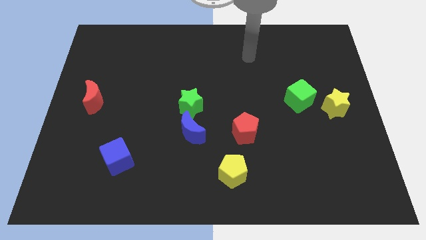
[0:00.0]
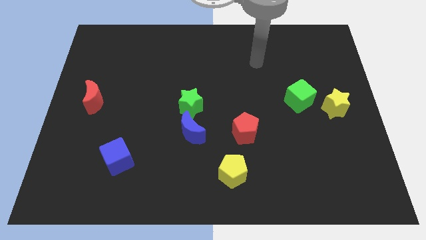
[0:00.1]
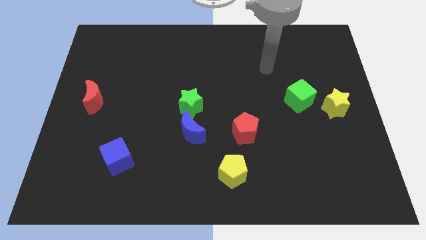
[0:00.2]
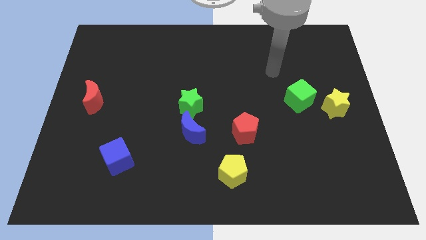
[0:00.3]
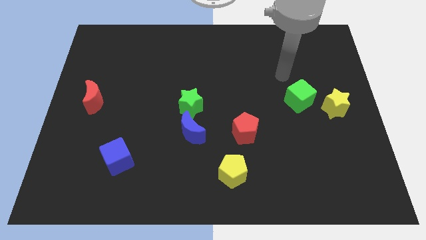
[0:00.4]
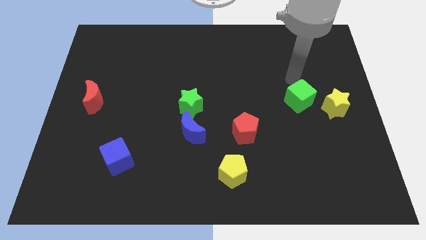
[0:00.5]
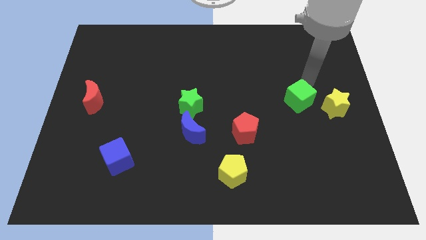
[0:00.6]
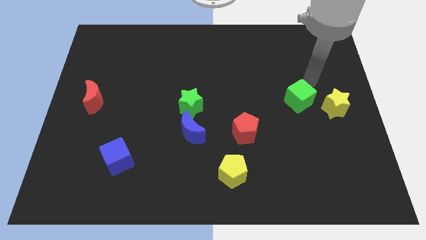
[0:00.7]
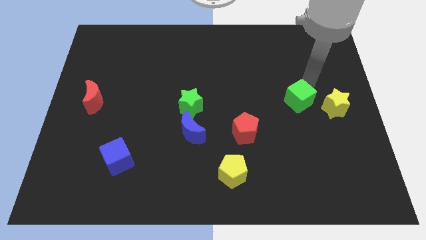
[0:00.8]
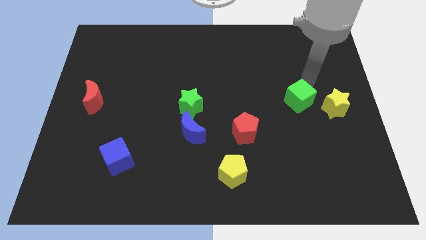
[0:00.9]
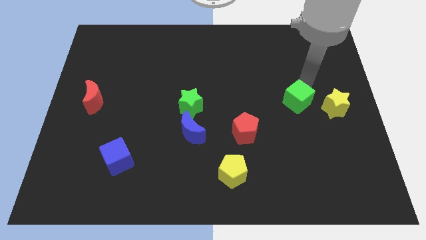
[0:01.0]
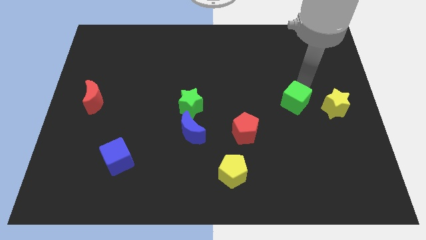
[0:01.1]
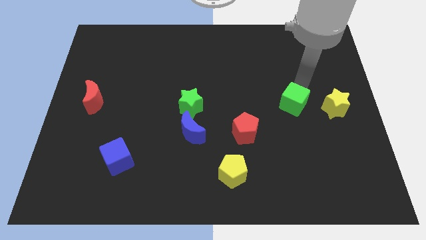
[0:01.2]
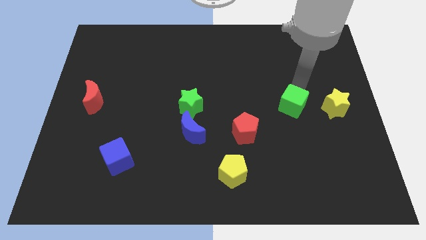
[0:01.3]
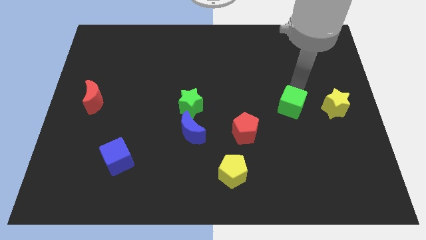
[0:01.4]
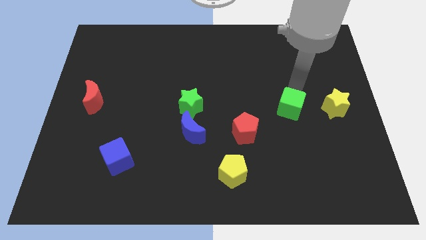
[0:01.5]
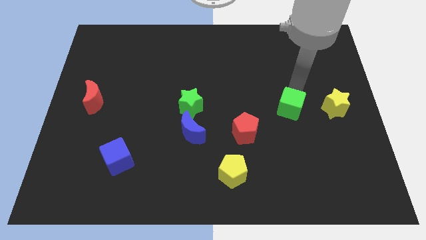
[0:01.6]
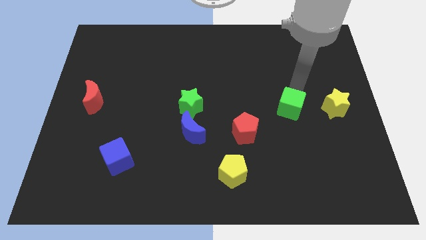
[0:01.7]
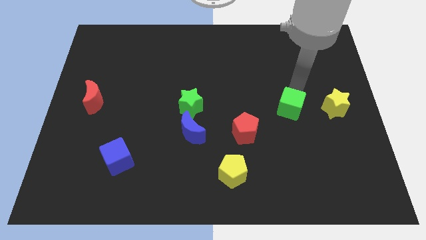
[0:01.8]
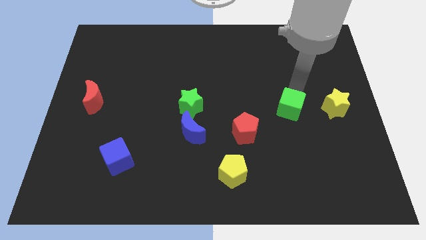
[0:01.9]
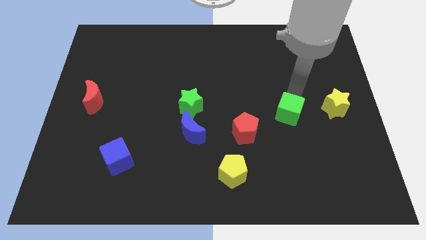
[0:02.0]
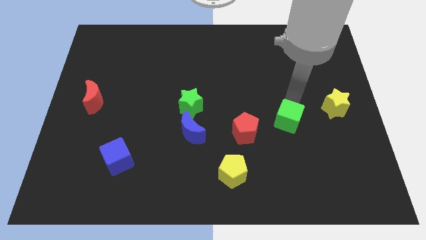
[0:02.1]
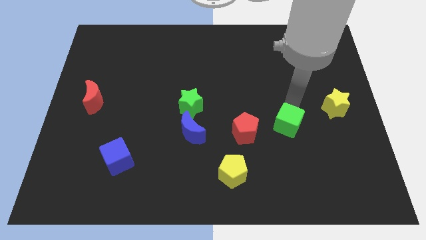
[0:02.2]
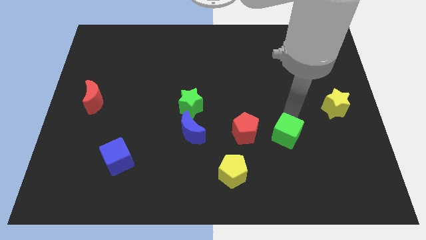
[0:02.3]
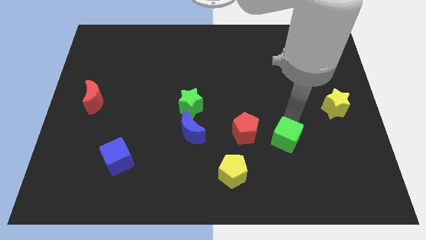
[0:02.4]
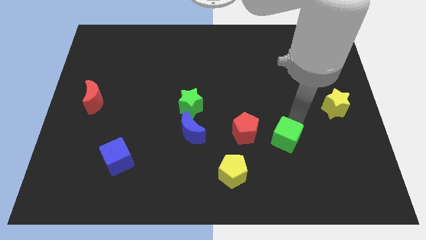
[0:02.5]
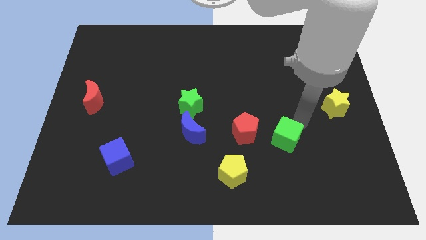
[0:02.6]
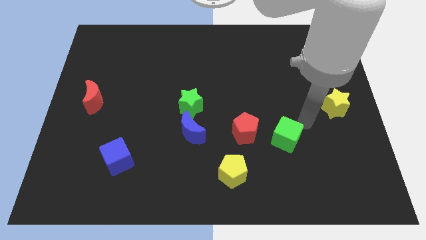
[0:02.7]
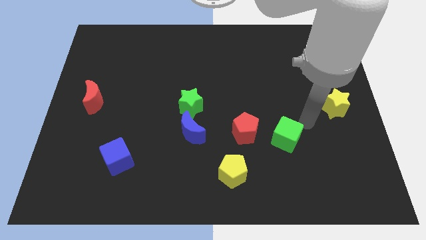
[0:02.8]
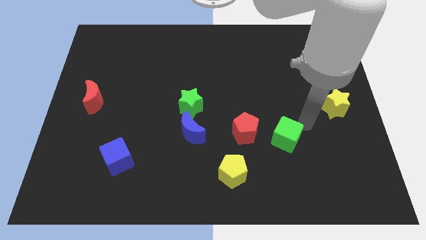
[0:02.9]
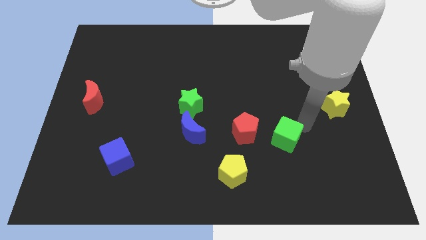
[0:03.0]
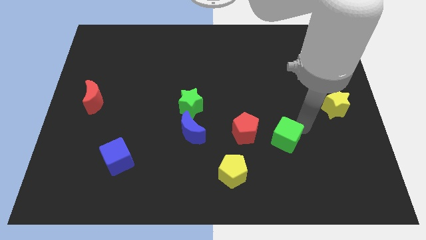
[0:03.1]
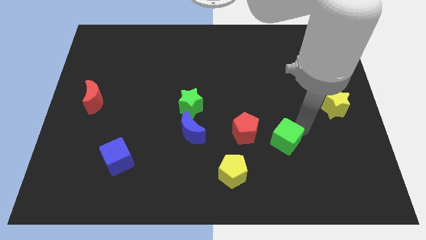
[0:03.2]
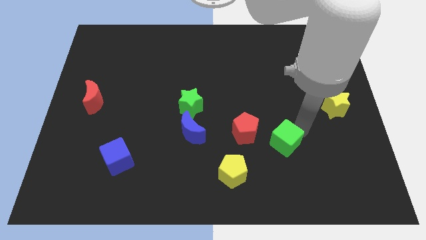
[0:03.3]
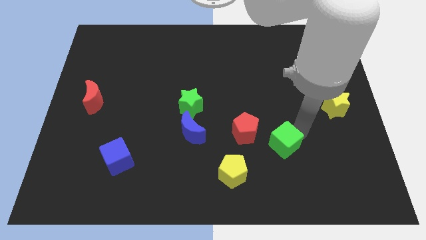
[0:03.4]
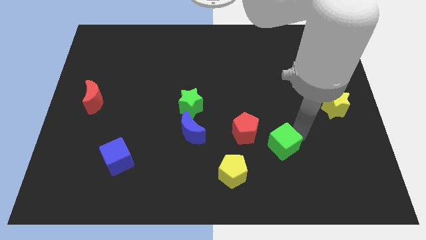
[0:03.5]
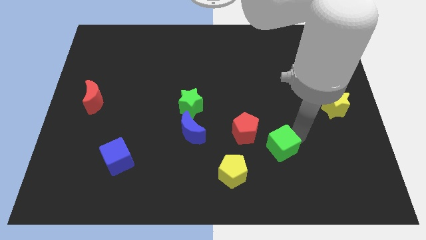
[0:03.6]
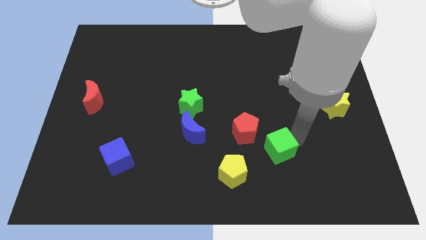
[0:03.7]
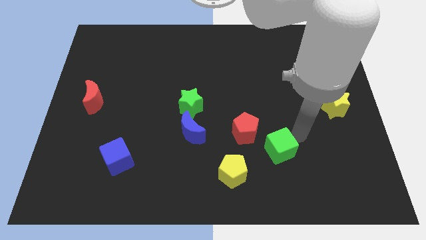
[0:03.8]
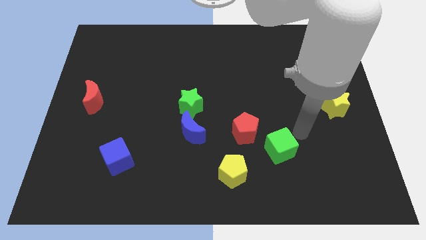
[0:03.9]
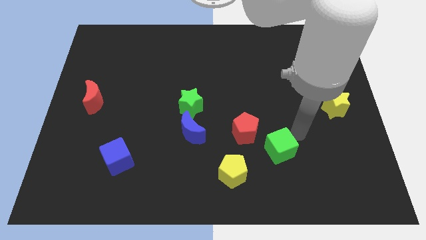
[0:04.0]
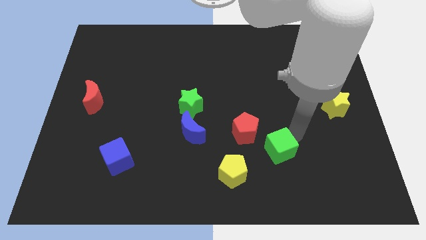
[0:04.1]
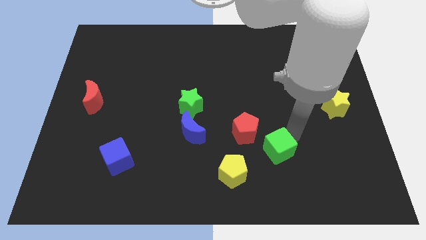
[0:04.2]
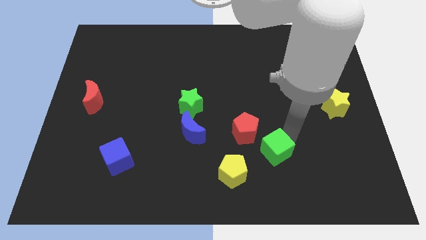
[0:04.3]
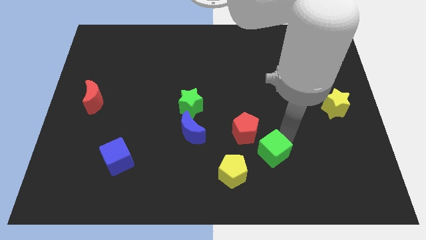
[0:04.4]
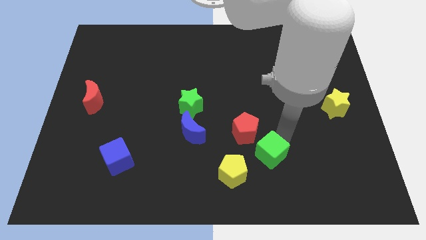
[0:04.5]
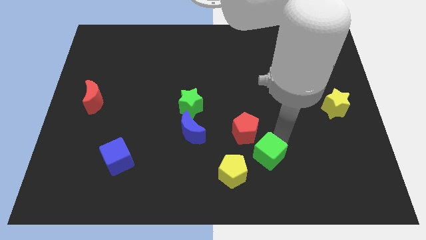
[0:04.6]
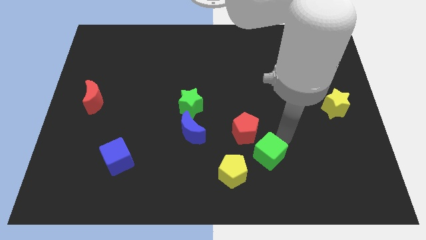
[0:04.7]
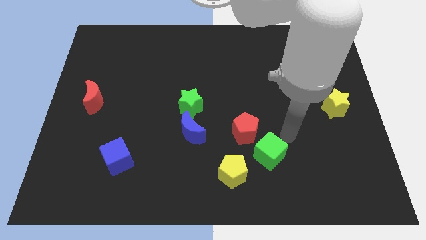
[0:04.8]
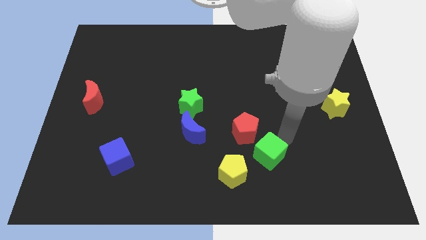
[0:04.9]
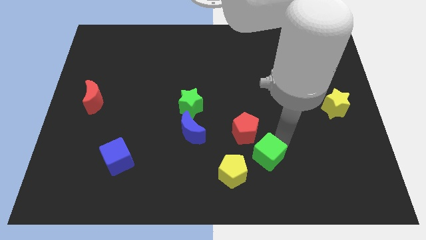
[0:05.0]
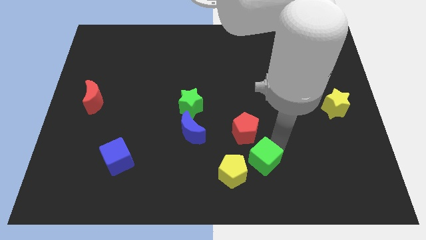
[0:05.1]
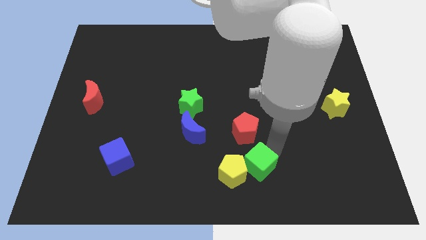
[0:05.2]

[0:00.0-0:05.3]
put the green cube towards the yellow pentagon

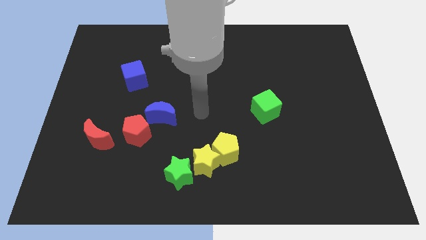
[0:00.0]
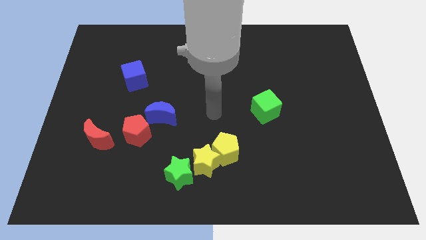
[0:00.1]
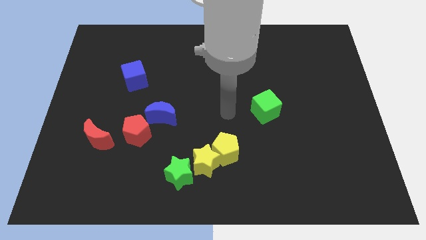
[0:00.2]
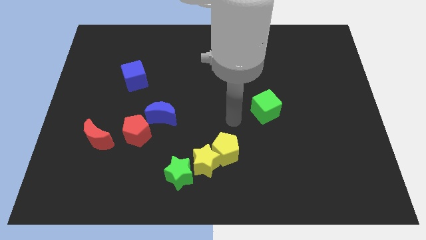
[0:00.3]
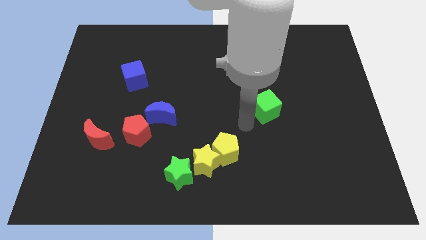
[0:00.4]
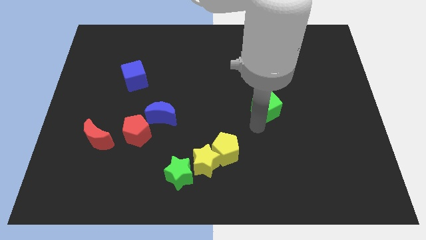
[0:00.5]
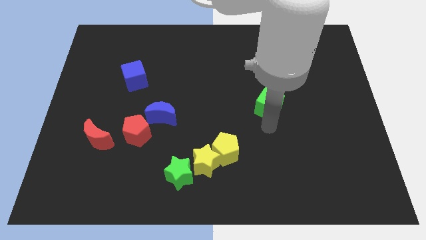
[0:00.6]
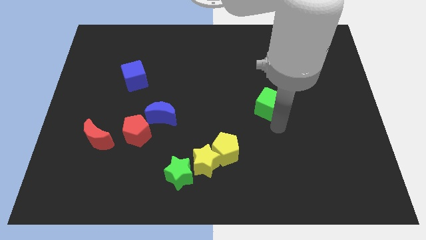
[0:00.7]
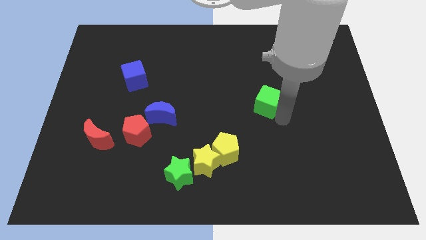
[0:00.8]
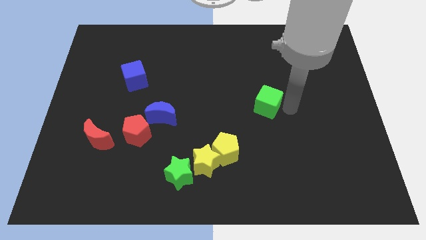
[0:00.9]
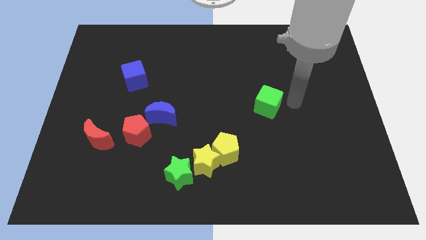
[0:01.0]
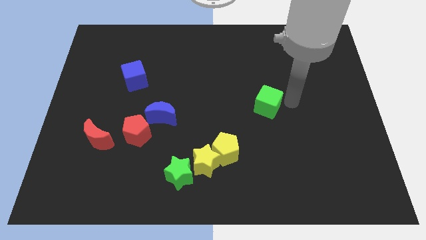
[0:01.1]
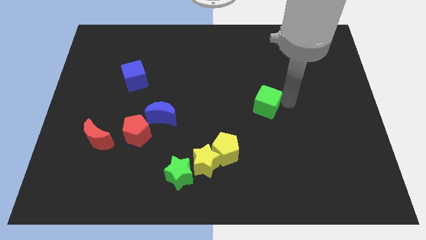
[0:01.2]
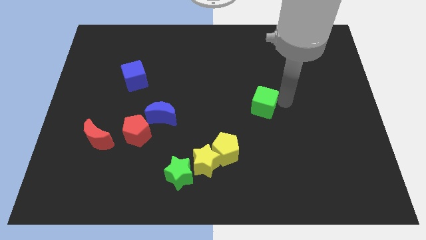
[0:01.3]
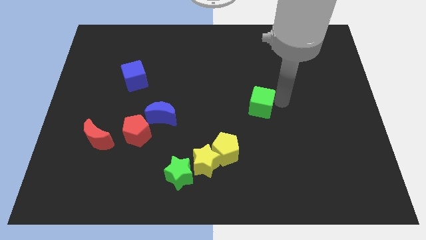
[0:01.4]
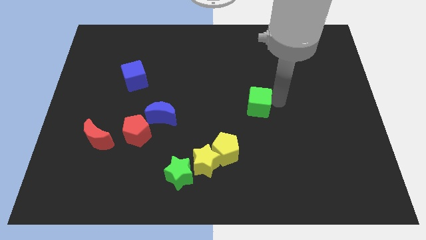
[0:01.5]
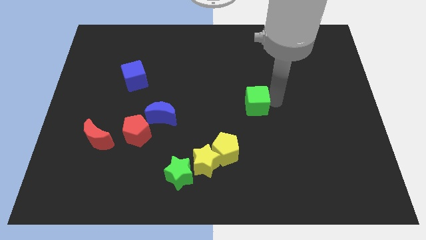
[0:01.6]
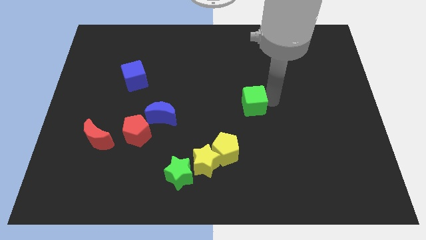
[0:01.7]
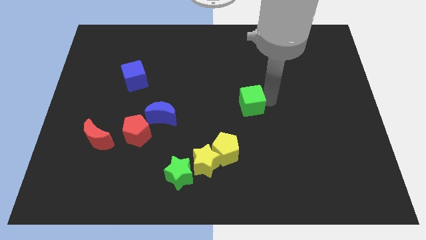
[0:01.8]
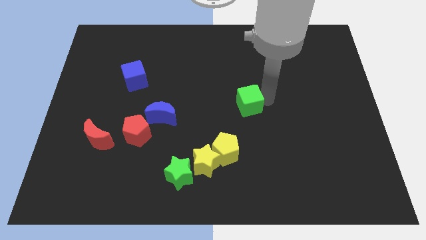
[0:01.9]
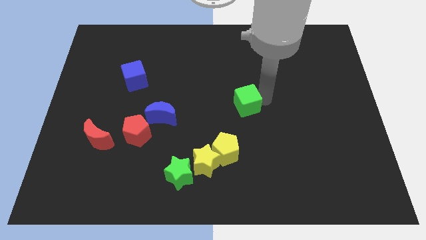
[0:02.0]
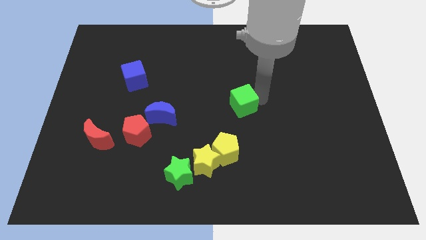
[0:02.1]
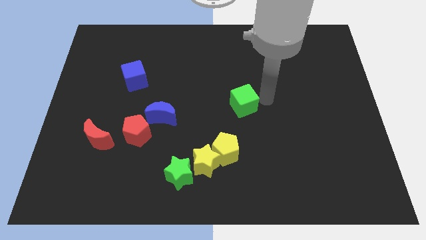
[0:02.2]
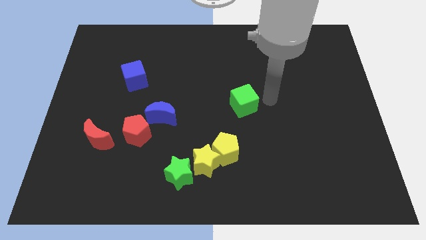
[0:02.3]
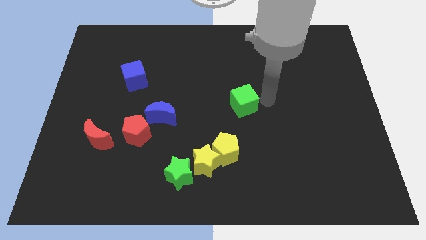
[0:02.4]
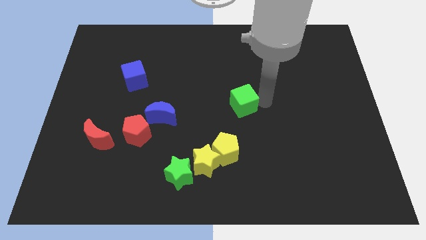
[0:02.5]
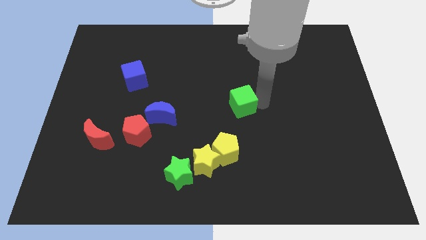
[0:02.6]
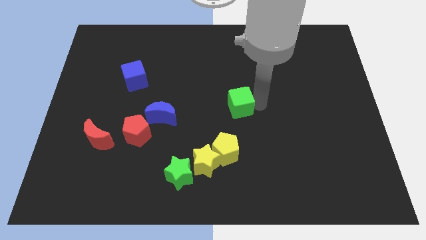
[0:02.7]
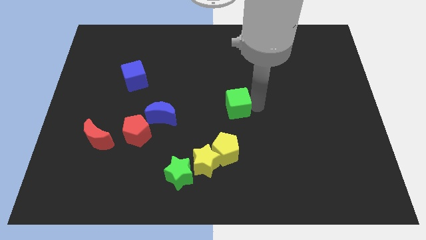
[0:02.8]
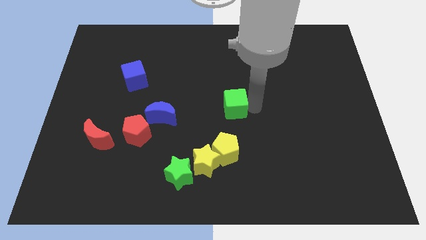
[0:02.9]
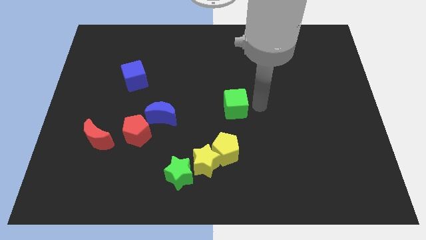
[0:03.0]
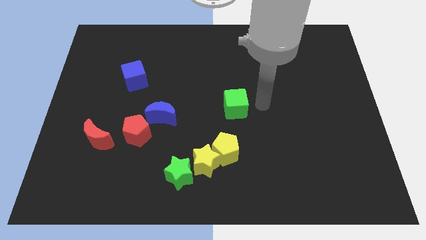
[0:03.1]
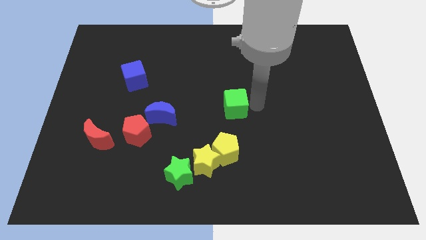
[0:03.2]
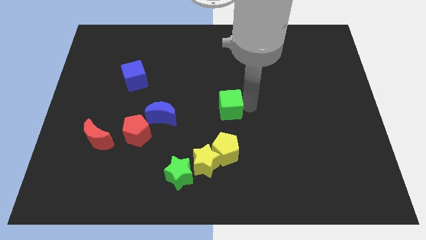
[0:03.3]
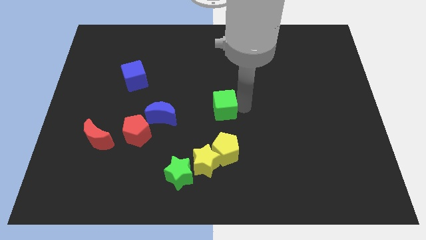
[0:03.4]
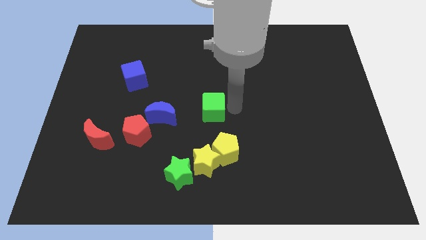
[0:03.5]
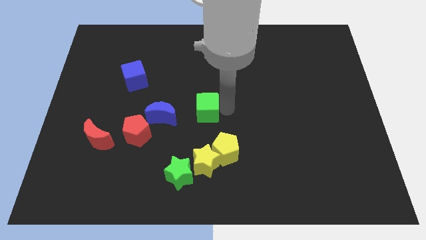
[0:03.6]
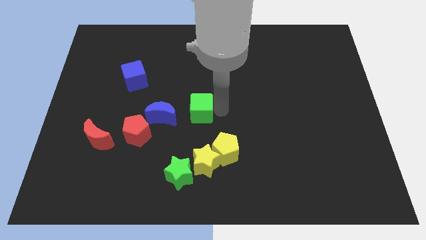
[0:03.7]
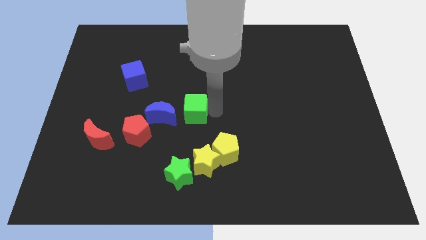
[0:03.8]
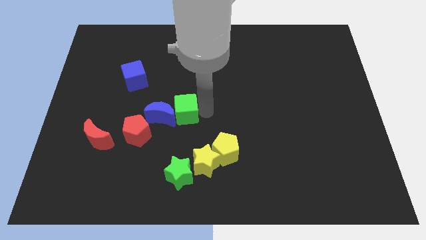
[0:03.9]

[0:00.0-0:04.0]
slide the green cube towards the blue moon
